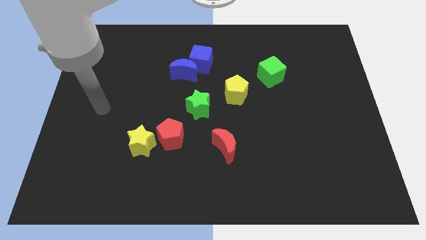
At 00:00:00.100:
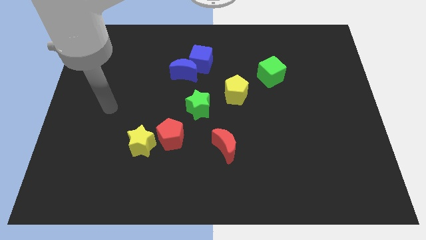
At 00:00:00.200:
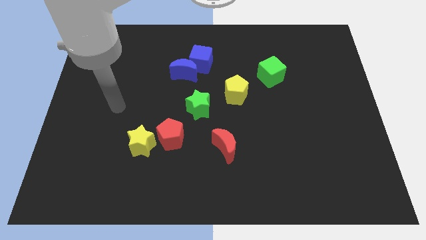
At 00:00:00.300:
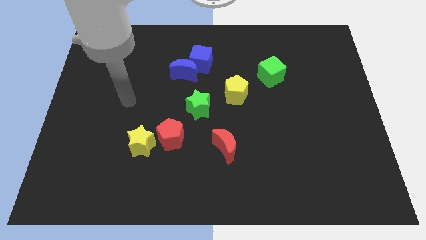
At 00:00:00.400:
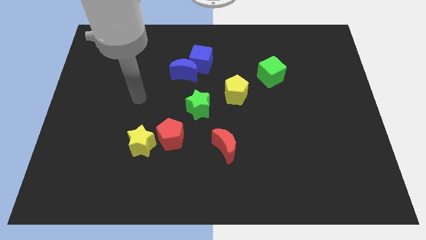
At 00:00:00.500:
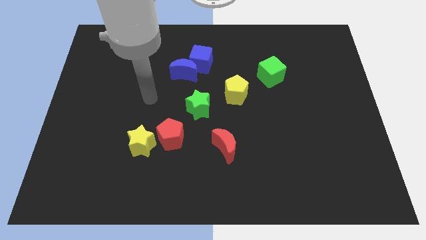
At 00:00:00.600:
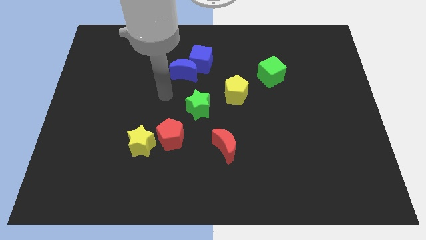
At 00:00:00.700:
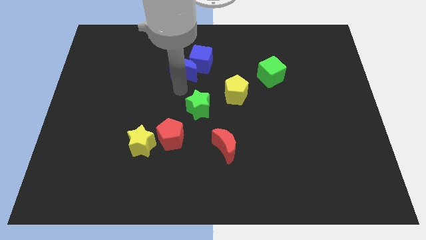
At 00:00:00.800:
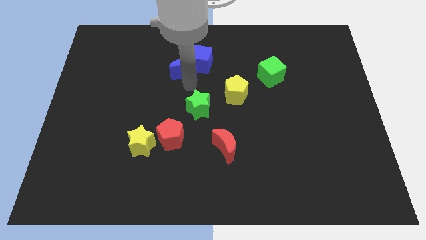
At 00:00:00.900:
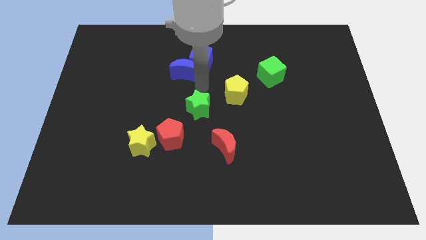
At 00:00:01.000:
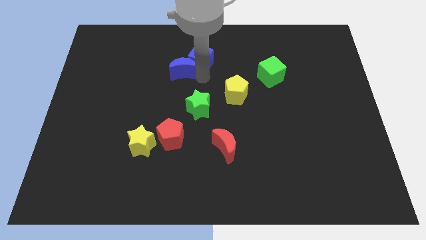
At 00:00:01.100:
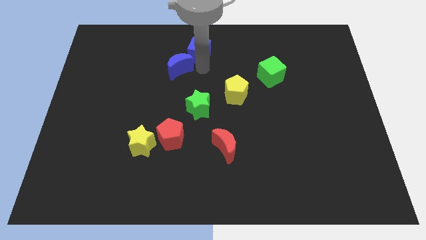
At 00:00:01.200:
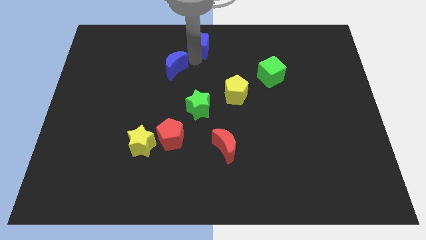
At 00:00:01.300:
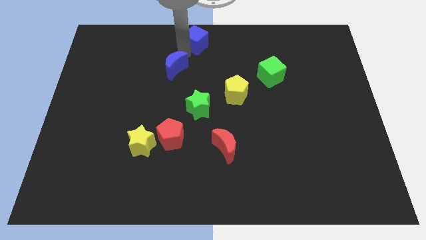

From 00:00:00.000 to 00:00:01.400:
separate the blue moon from the blue cube

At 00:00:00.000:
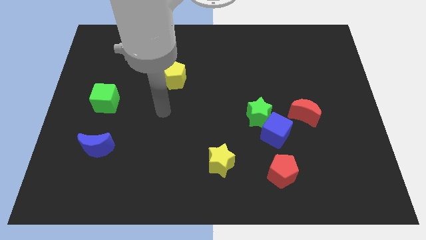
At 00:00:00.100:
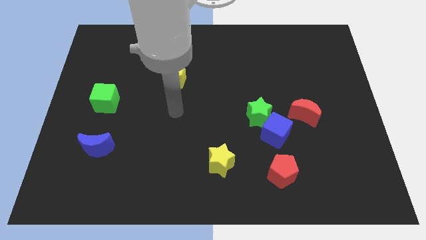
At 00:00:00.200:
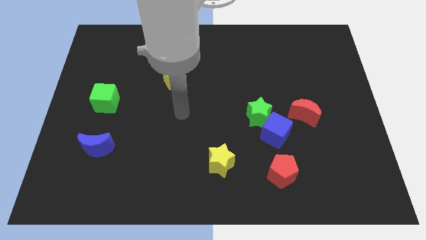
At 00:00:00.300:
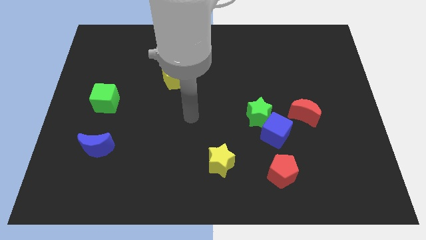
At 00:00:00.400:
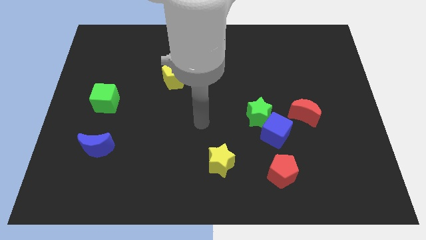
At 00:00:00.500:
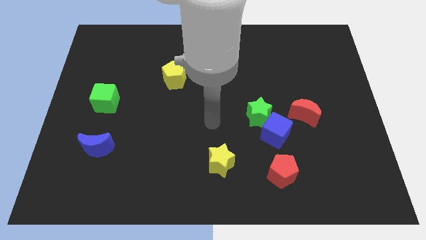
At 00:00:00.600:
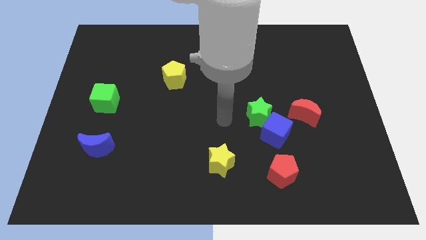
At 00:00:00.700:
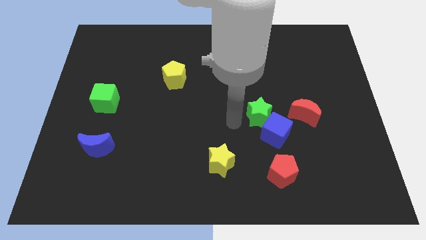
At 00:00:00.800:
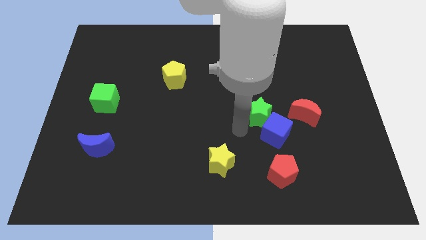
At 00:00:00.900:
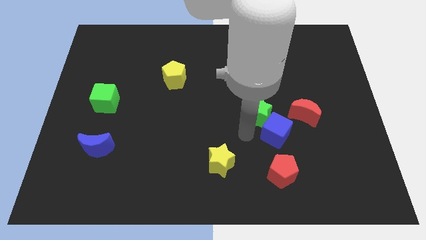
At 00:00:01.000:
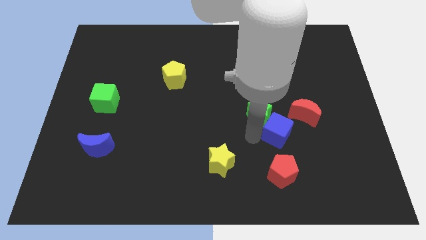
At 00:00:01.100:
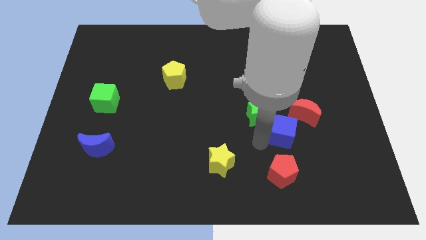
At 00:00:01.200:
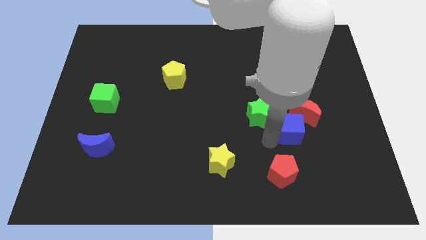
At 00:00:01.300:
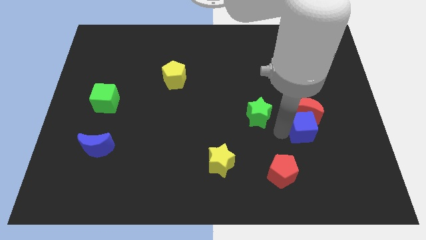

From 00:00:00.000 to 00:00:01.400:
separate the green star from the blue cube

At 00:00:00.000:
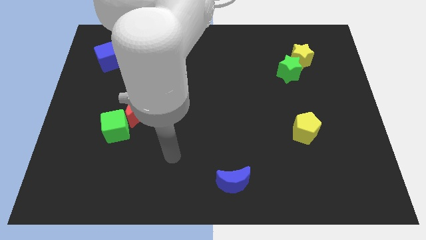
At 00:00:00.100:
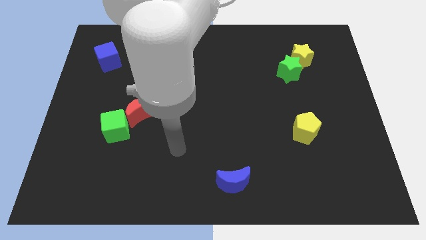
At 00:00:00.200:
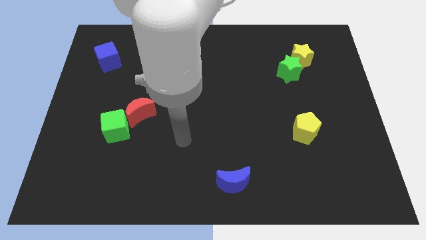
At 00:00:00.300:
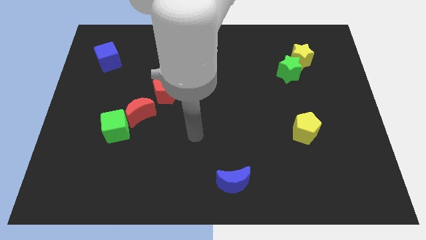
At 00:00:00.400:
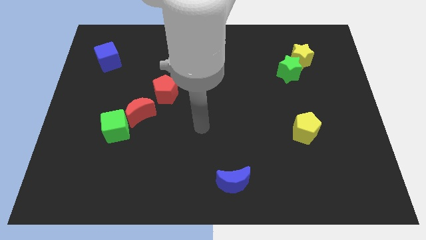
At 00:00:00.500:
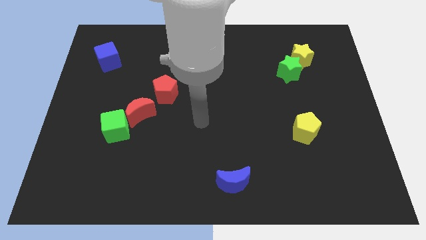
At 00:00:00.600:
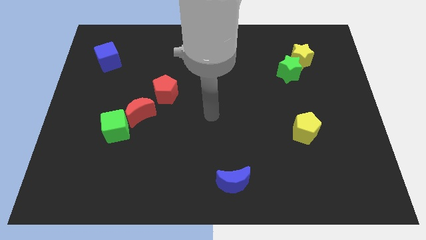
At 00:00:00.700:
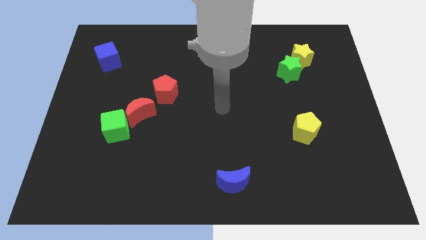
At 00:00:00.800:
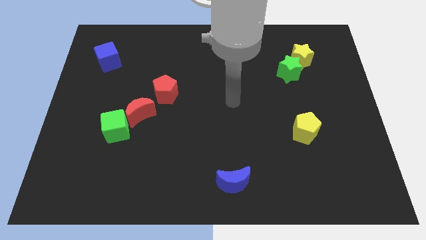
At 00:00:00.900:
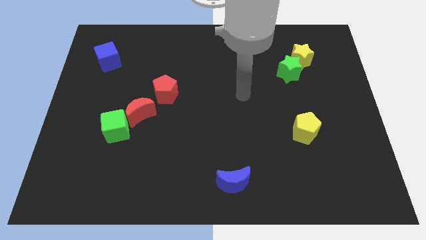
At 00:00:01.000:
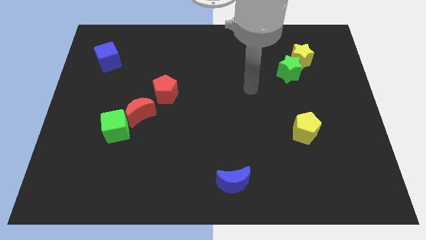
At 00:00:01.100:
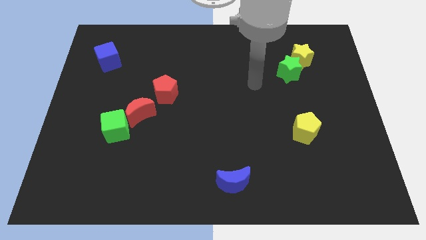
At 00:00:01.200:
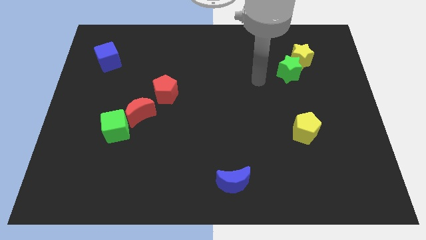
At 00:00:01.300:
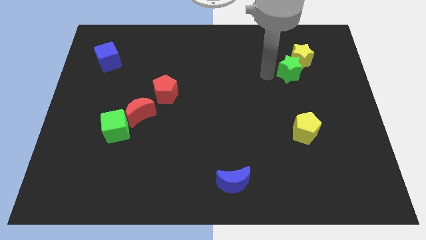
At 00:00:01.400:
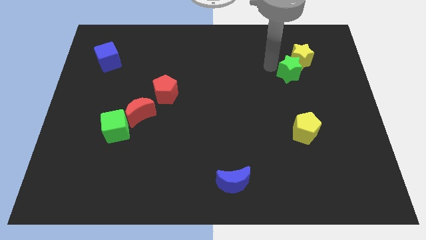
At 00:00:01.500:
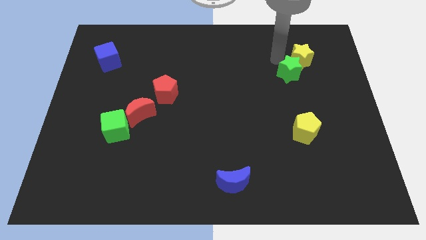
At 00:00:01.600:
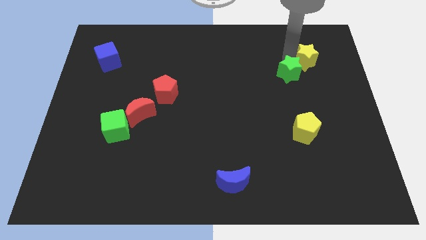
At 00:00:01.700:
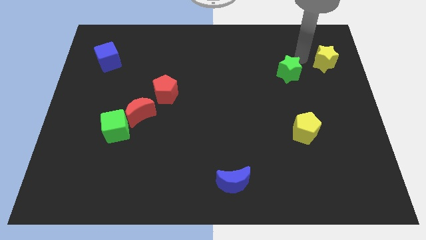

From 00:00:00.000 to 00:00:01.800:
pull the green star apart from the yellow star

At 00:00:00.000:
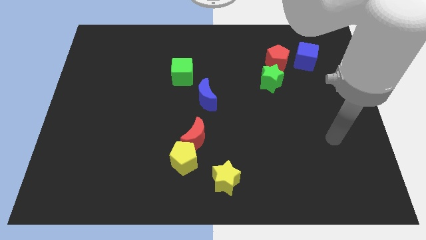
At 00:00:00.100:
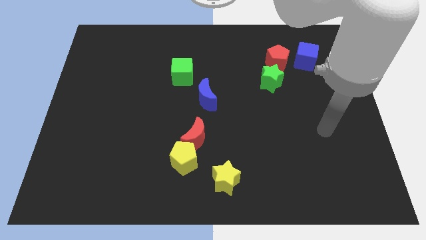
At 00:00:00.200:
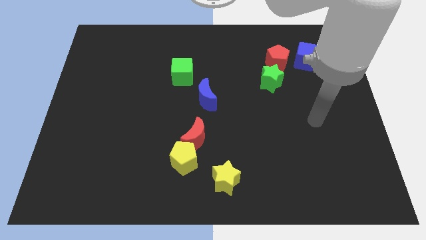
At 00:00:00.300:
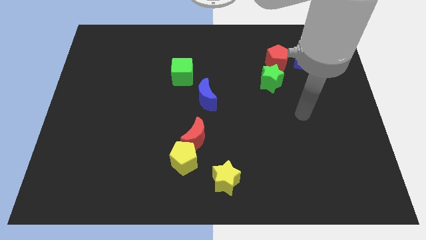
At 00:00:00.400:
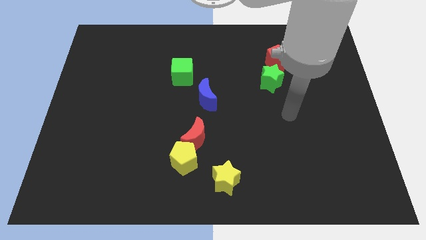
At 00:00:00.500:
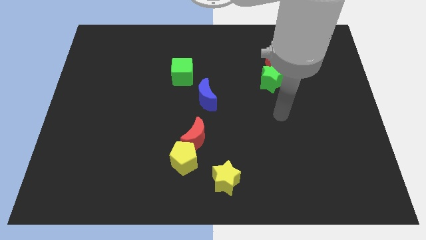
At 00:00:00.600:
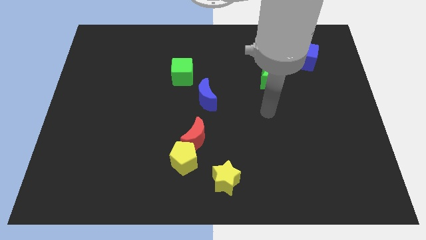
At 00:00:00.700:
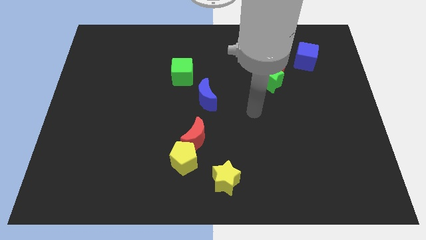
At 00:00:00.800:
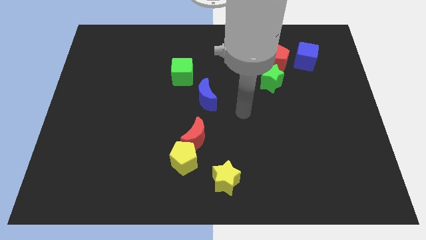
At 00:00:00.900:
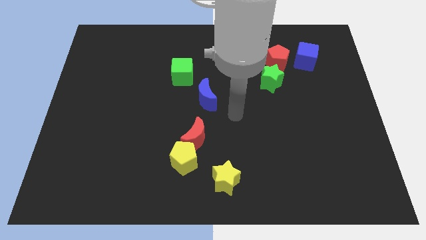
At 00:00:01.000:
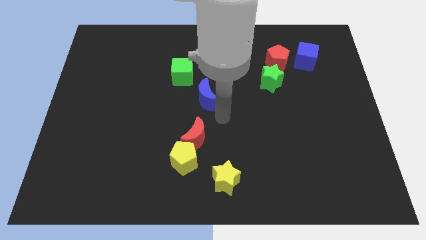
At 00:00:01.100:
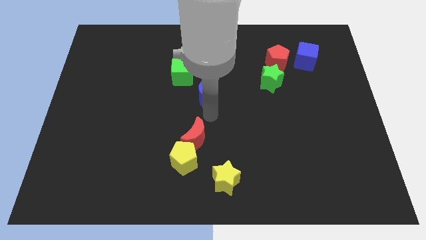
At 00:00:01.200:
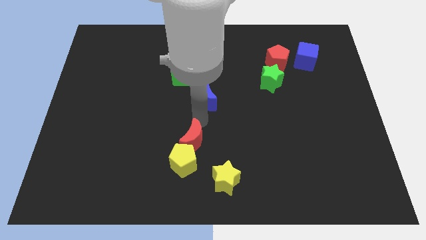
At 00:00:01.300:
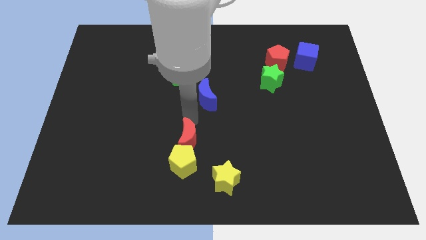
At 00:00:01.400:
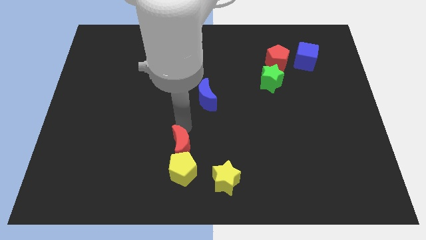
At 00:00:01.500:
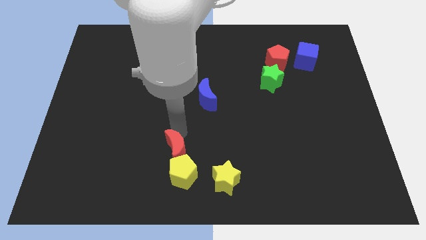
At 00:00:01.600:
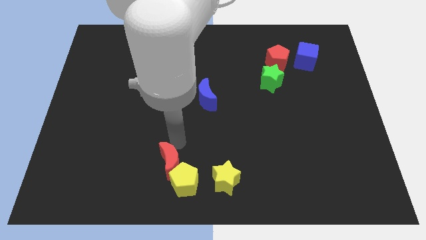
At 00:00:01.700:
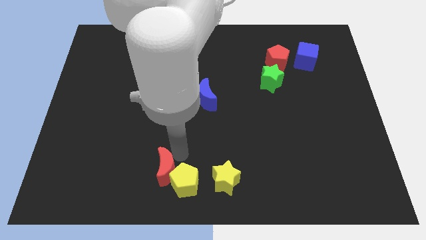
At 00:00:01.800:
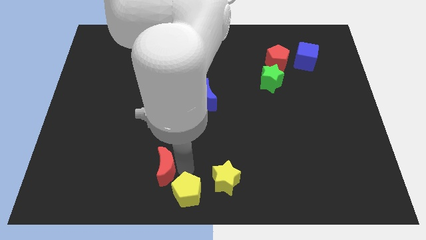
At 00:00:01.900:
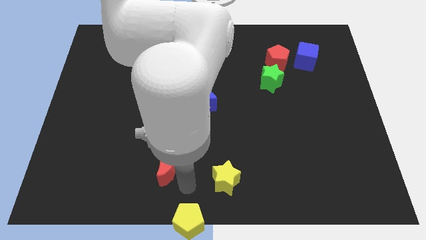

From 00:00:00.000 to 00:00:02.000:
separate the red moon from the yellow pentagon

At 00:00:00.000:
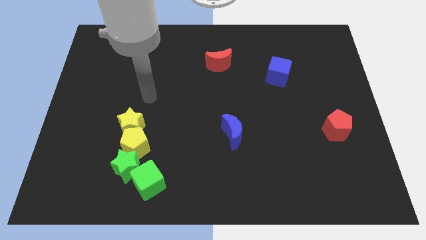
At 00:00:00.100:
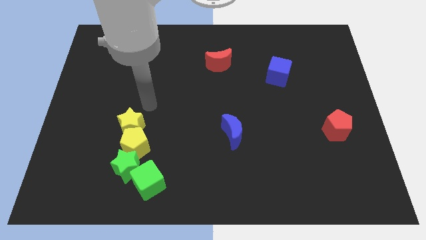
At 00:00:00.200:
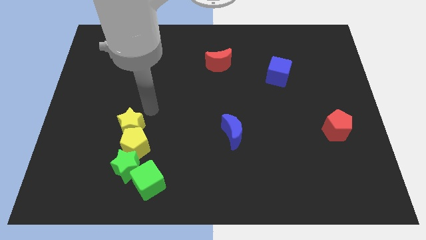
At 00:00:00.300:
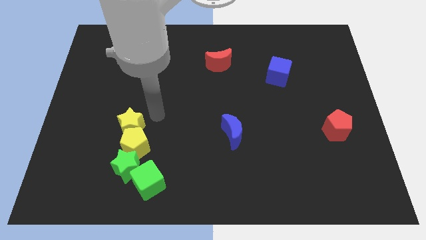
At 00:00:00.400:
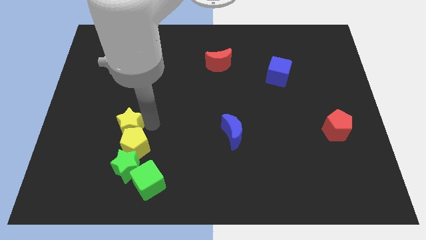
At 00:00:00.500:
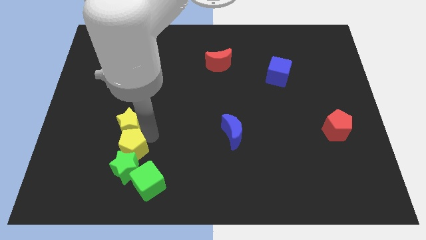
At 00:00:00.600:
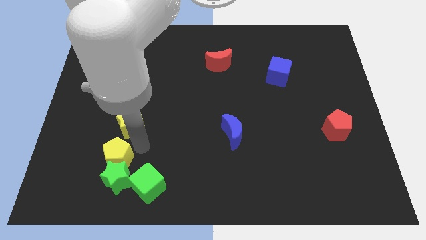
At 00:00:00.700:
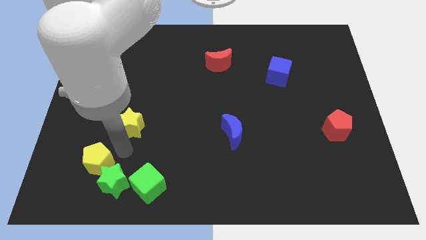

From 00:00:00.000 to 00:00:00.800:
pull the yellow star apart from the yellow pentagon

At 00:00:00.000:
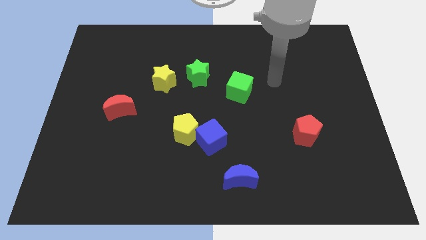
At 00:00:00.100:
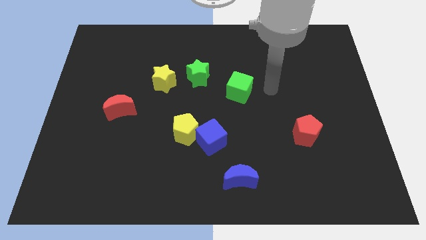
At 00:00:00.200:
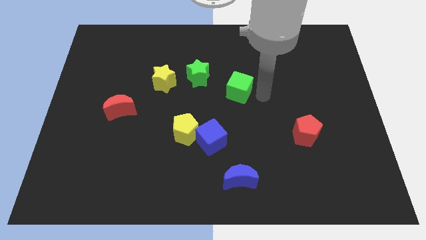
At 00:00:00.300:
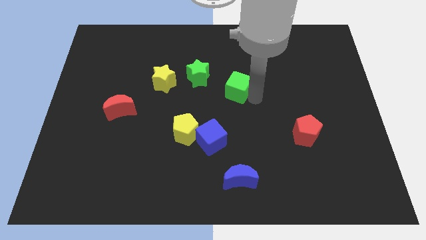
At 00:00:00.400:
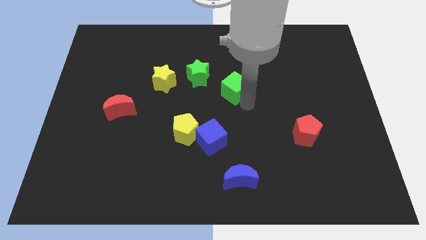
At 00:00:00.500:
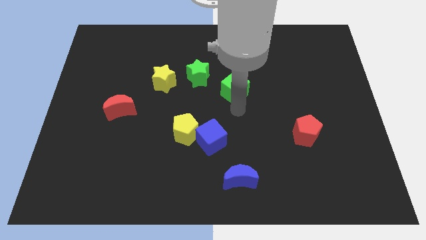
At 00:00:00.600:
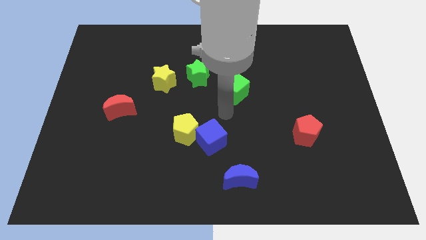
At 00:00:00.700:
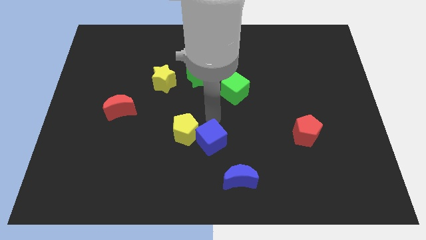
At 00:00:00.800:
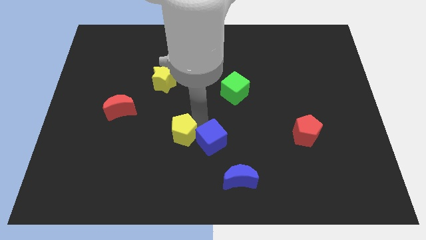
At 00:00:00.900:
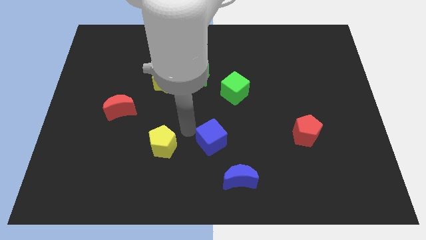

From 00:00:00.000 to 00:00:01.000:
pull the blue cube apart from the yellow pentagon

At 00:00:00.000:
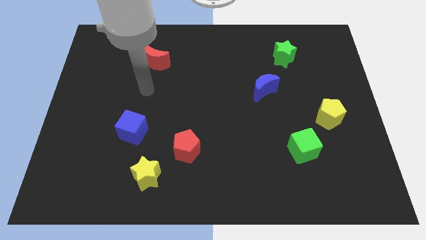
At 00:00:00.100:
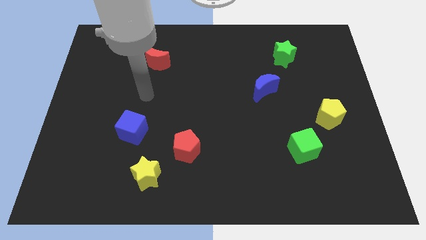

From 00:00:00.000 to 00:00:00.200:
separate the red pentagon from the yellow star

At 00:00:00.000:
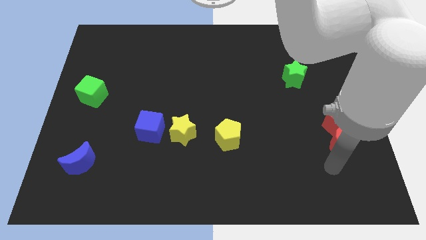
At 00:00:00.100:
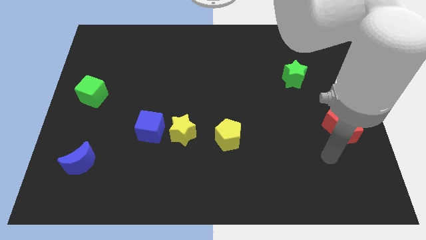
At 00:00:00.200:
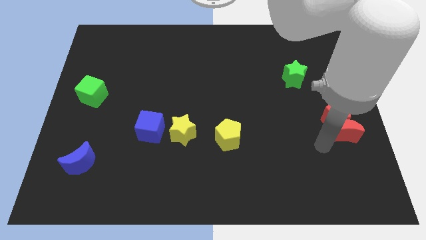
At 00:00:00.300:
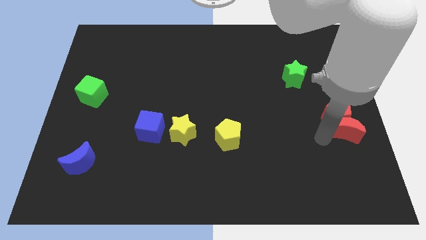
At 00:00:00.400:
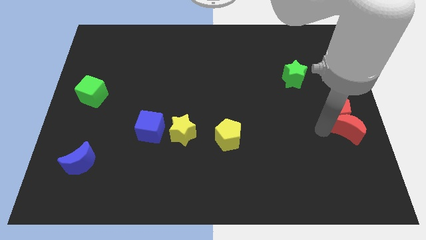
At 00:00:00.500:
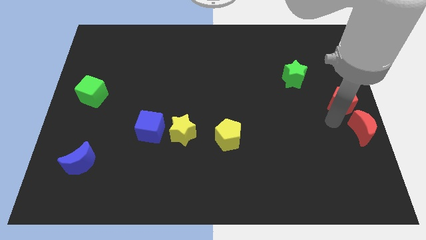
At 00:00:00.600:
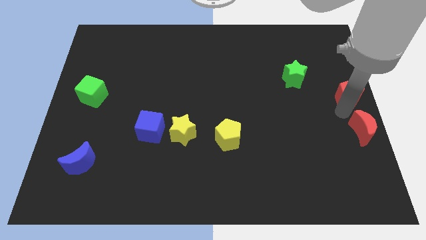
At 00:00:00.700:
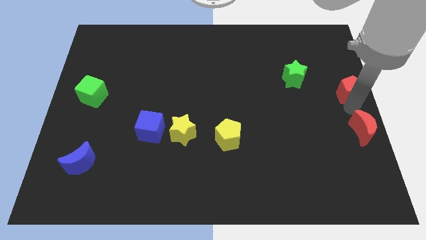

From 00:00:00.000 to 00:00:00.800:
move the red moon away from the red pentagon
